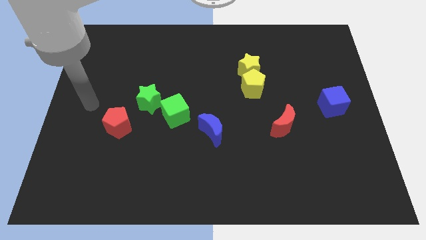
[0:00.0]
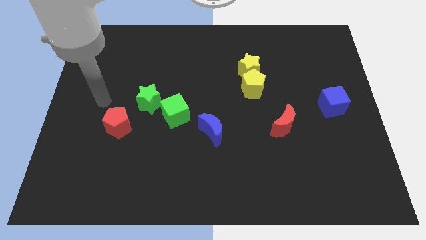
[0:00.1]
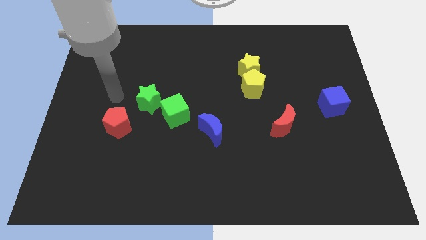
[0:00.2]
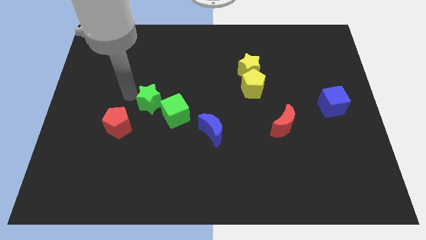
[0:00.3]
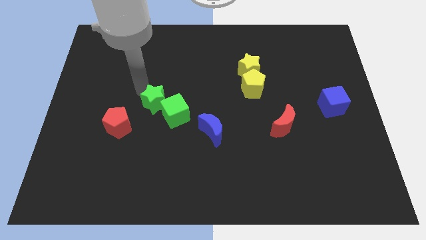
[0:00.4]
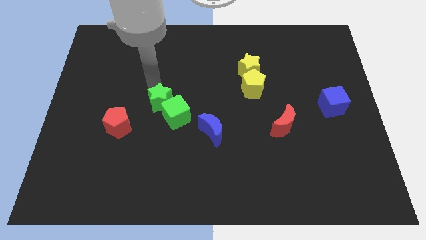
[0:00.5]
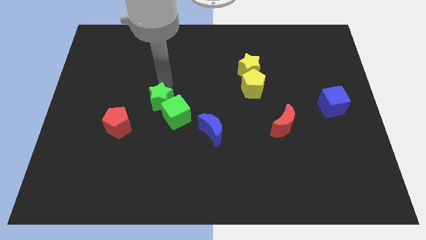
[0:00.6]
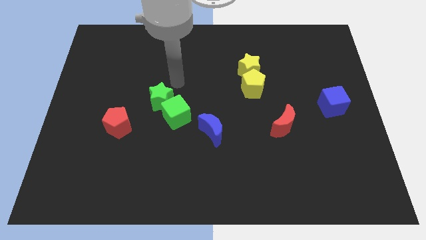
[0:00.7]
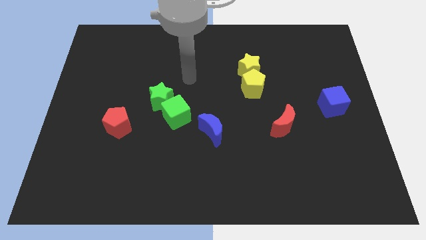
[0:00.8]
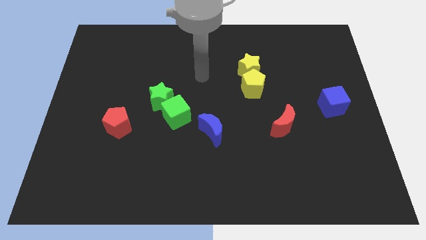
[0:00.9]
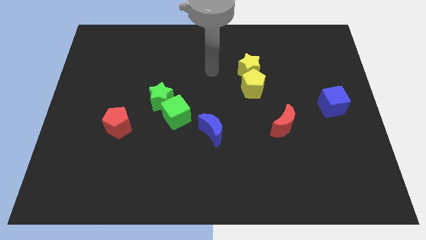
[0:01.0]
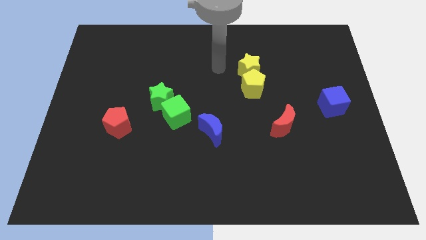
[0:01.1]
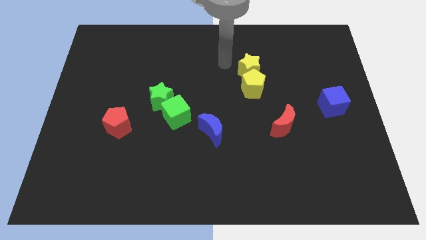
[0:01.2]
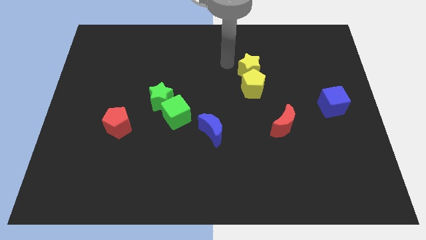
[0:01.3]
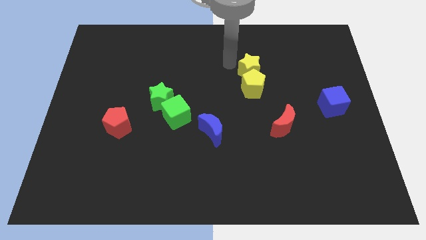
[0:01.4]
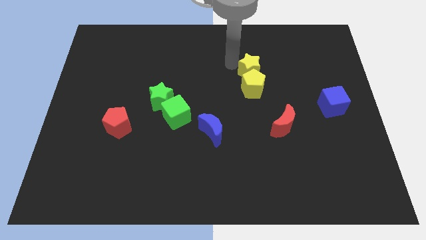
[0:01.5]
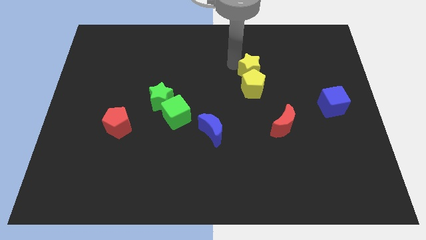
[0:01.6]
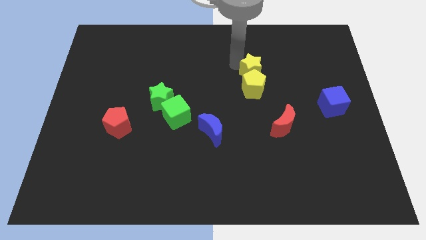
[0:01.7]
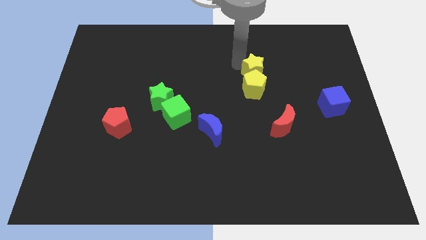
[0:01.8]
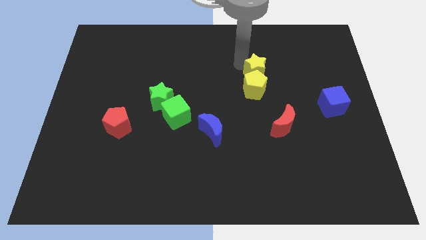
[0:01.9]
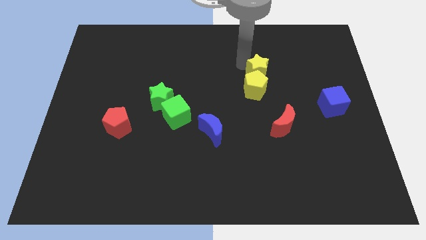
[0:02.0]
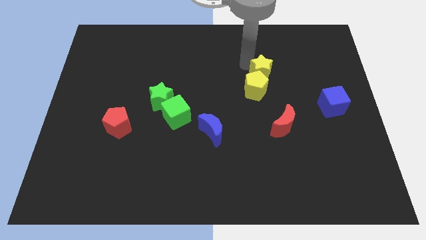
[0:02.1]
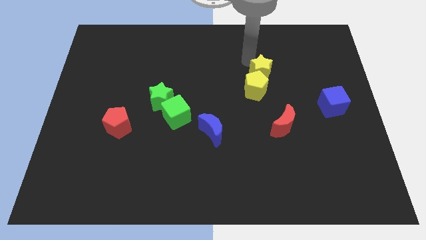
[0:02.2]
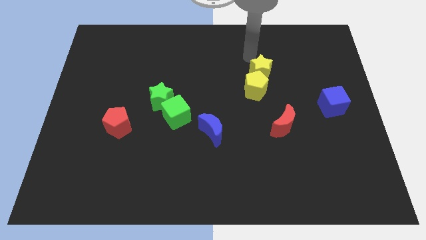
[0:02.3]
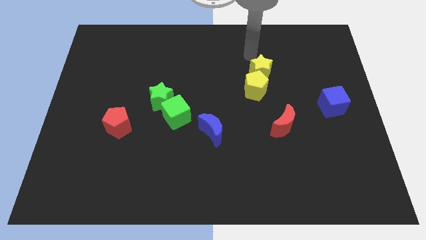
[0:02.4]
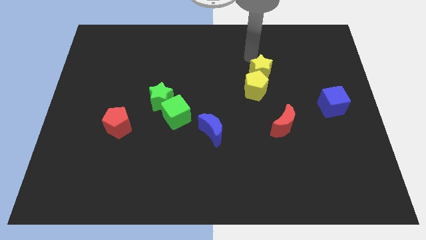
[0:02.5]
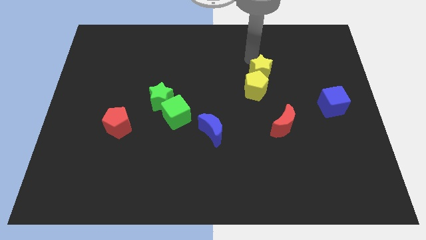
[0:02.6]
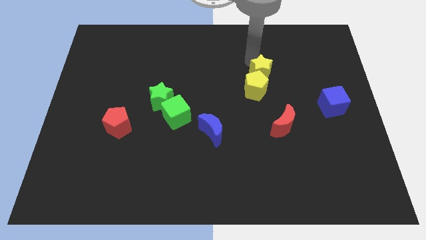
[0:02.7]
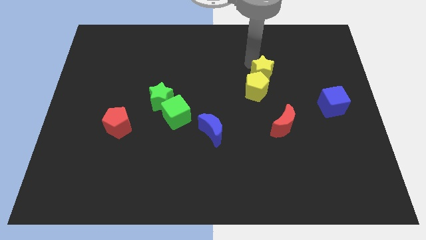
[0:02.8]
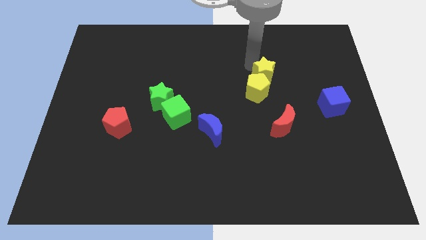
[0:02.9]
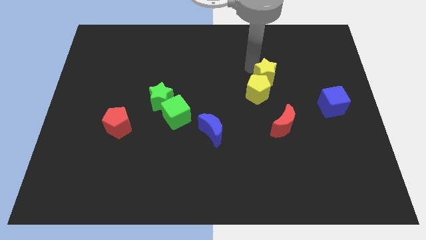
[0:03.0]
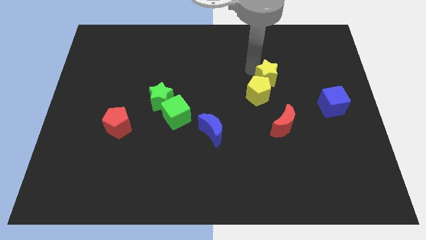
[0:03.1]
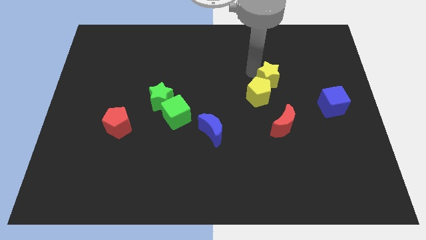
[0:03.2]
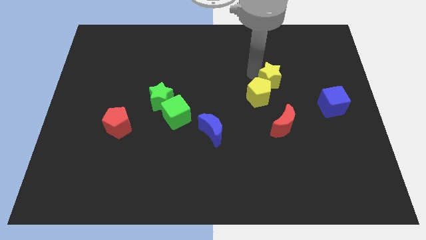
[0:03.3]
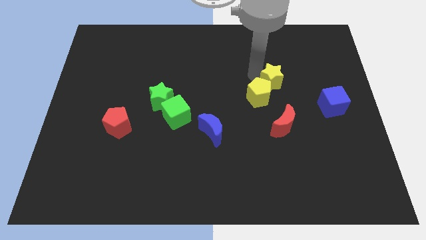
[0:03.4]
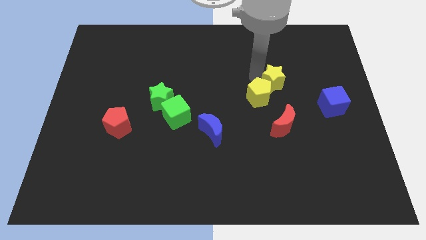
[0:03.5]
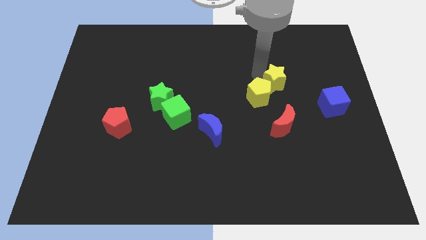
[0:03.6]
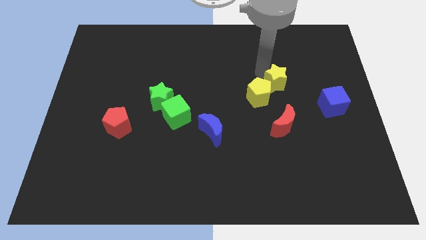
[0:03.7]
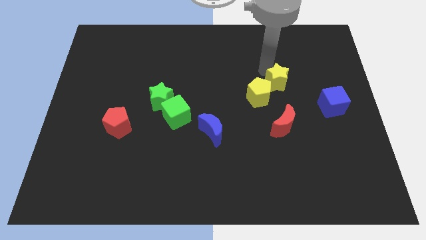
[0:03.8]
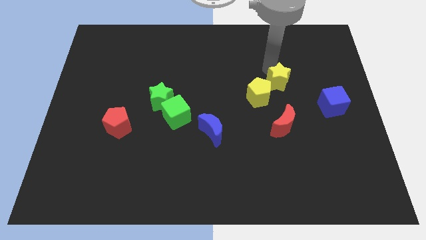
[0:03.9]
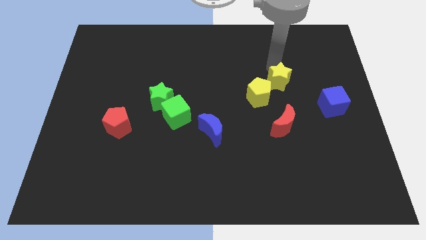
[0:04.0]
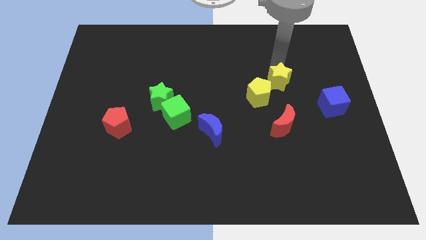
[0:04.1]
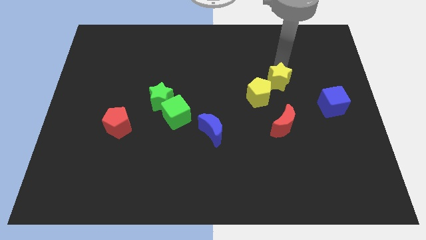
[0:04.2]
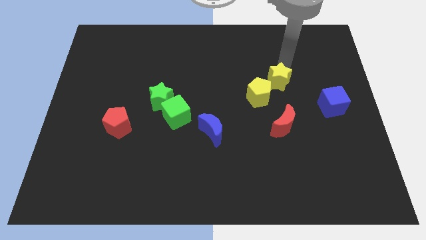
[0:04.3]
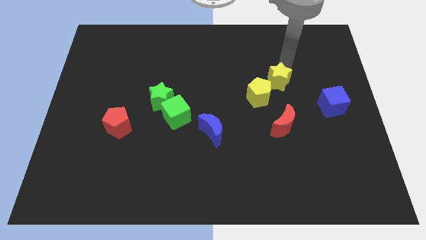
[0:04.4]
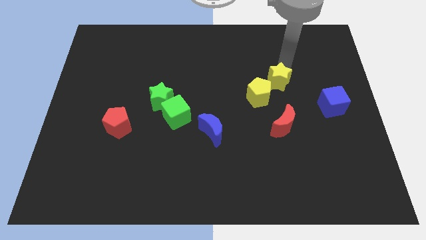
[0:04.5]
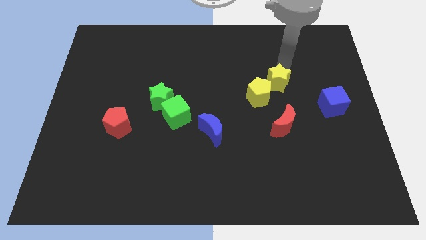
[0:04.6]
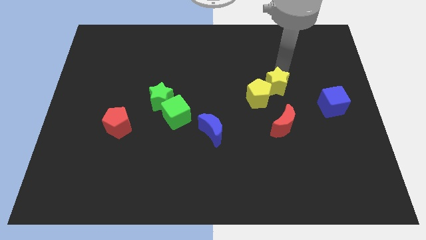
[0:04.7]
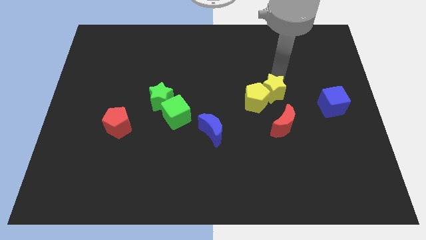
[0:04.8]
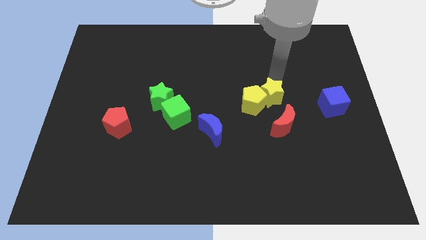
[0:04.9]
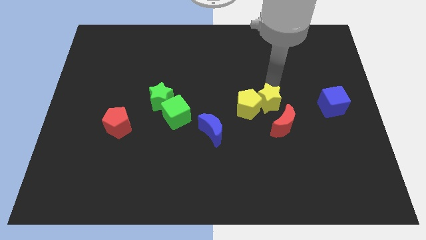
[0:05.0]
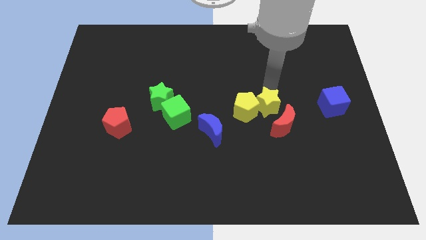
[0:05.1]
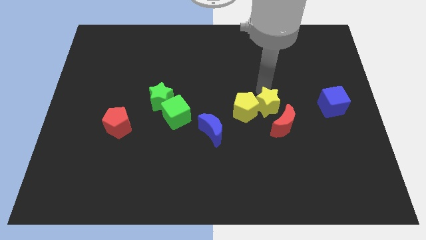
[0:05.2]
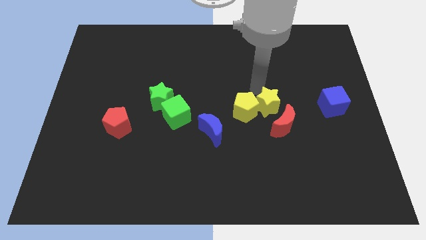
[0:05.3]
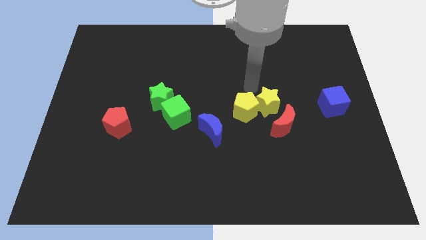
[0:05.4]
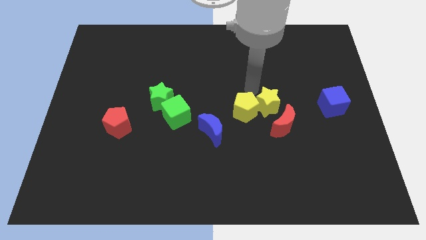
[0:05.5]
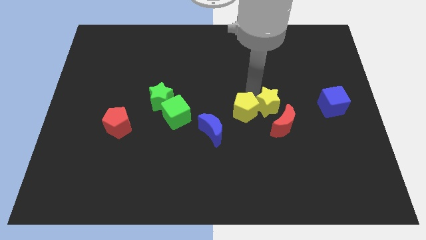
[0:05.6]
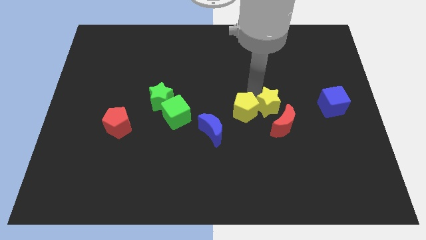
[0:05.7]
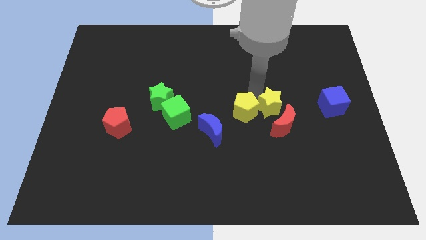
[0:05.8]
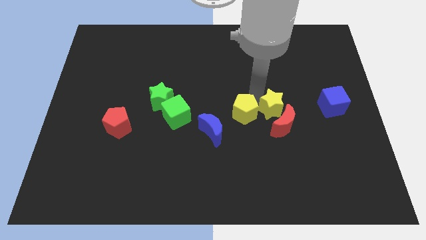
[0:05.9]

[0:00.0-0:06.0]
put the yellow star next to the red moon

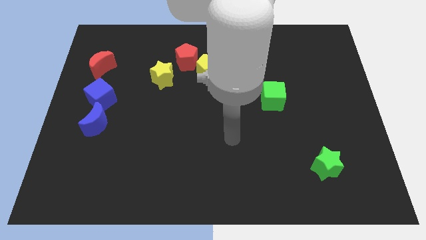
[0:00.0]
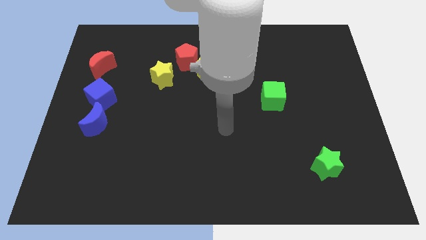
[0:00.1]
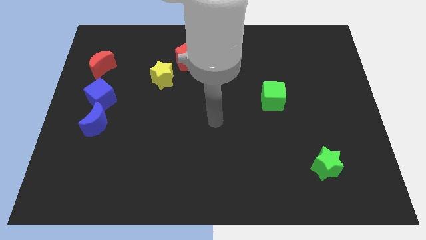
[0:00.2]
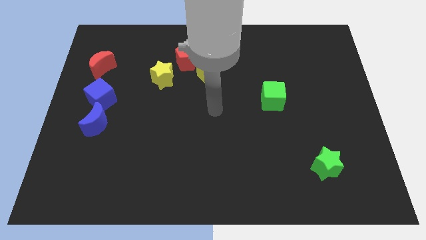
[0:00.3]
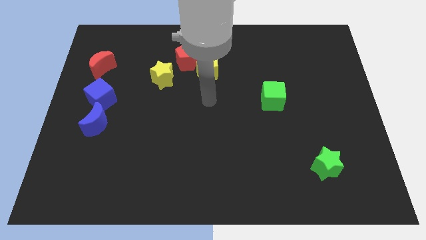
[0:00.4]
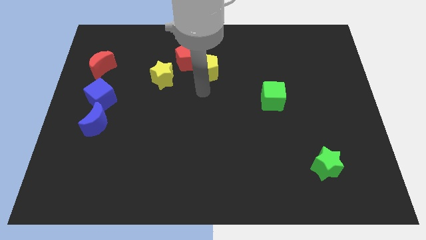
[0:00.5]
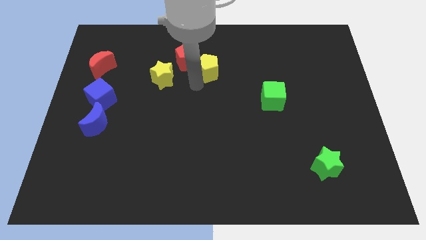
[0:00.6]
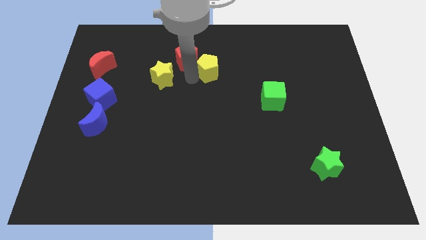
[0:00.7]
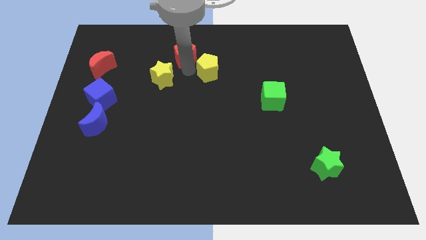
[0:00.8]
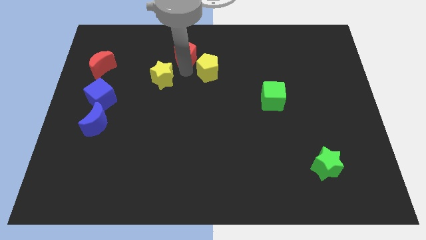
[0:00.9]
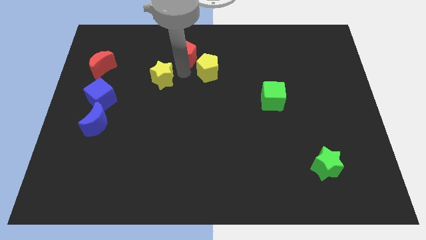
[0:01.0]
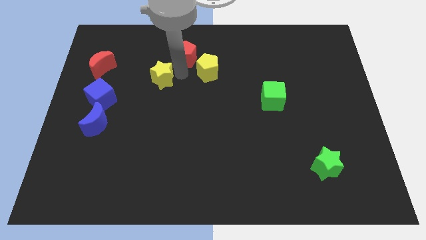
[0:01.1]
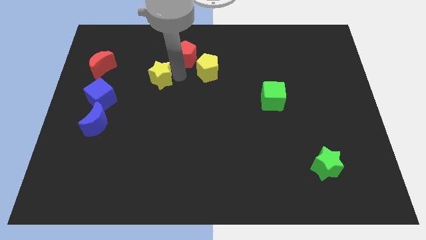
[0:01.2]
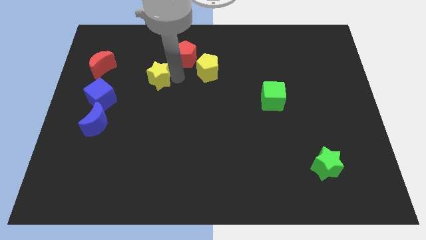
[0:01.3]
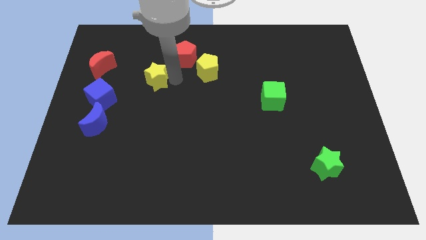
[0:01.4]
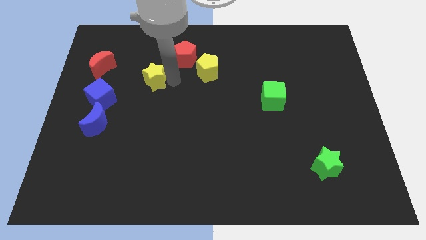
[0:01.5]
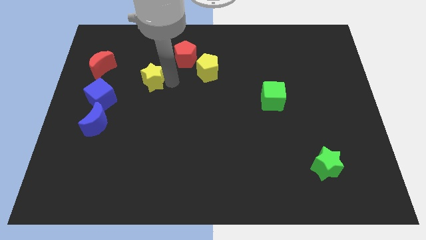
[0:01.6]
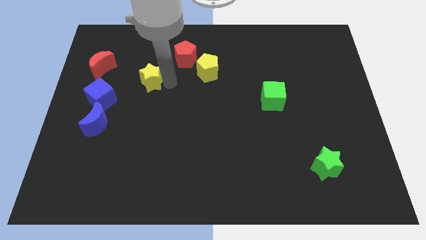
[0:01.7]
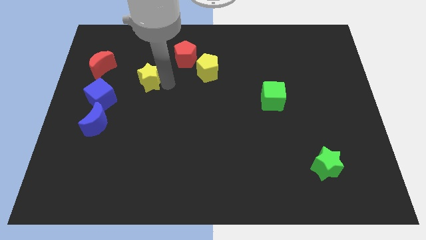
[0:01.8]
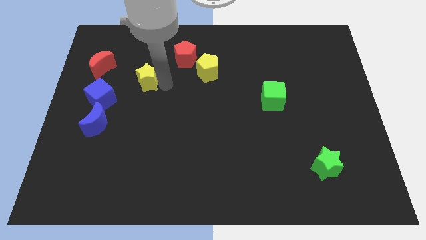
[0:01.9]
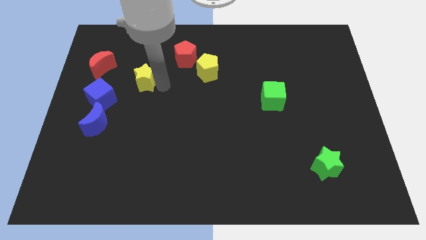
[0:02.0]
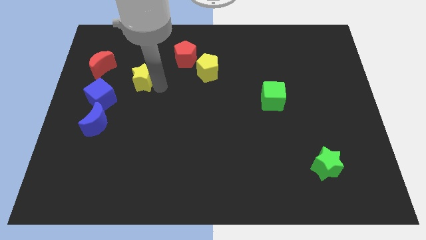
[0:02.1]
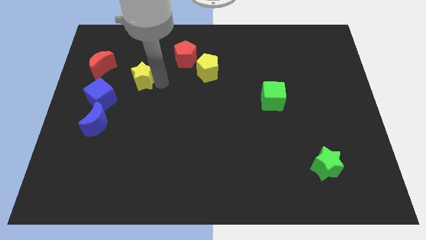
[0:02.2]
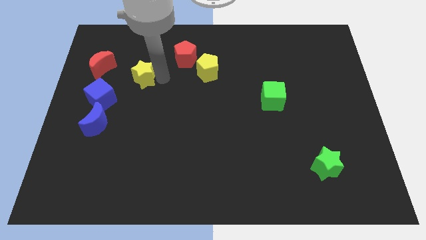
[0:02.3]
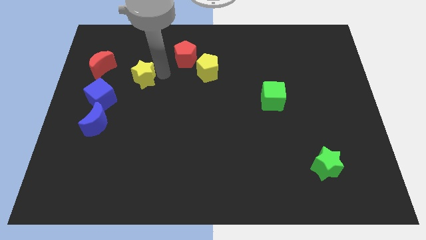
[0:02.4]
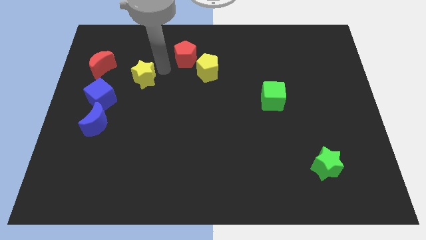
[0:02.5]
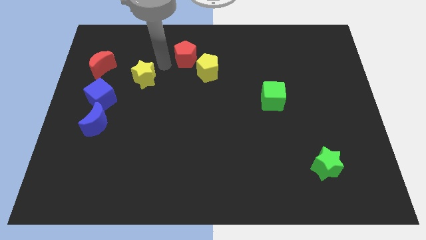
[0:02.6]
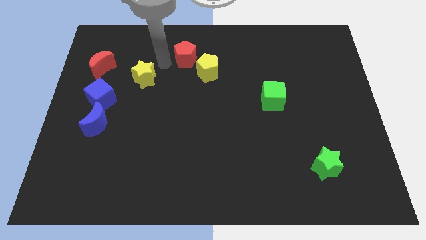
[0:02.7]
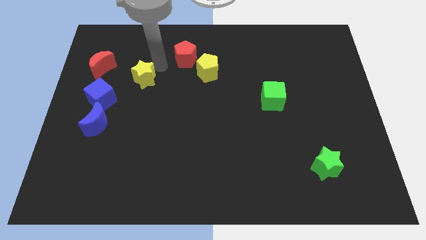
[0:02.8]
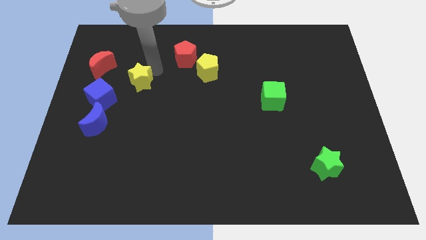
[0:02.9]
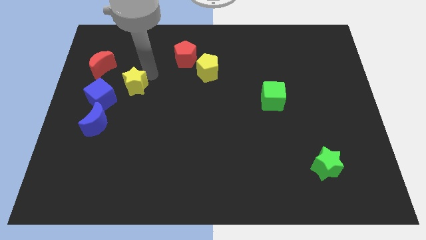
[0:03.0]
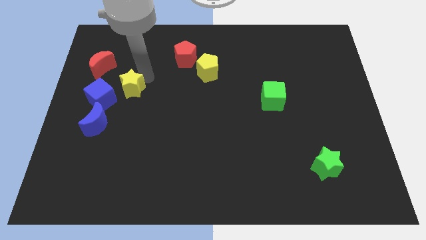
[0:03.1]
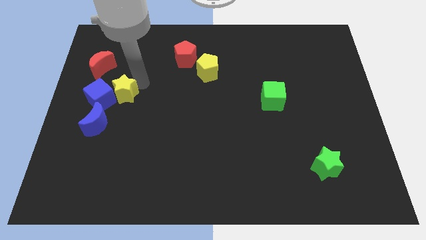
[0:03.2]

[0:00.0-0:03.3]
push the yellow star next to the blue cube
